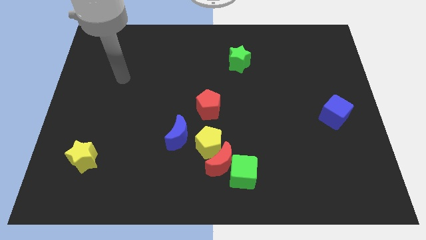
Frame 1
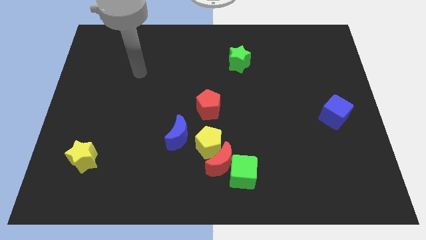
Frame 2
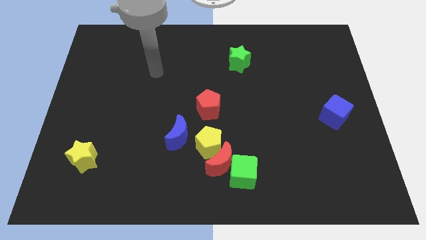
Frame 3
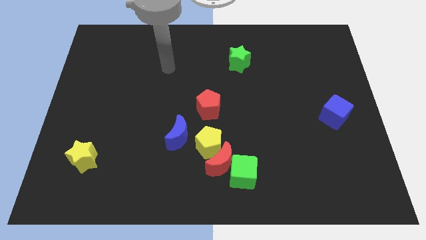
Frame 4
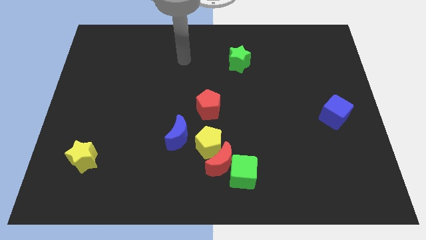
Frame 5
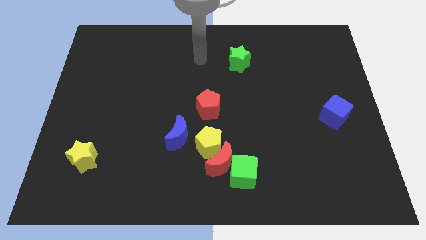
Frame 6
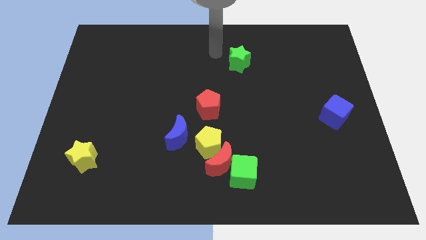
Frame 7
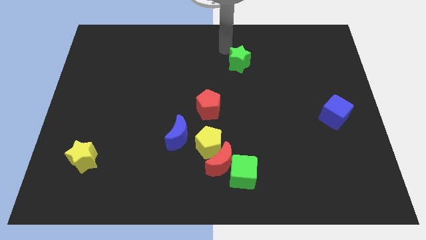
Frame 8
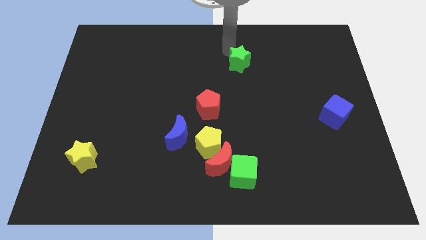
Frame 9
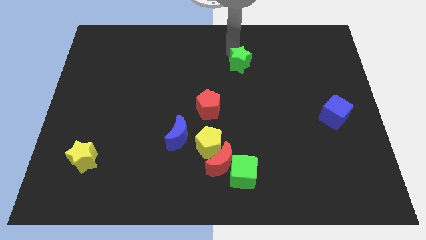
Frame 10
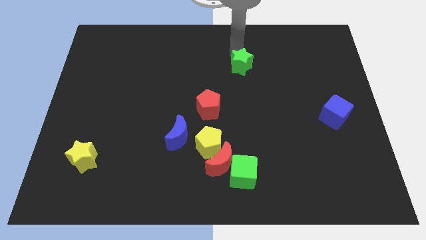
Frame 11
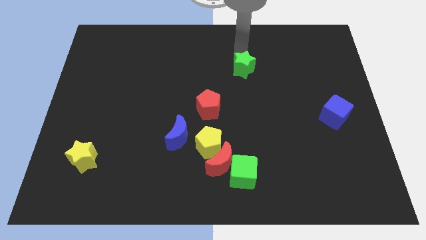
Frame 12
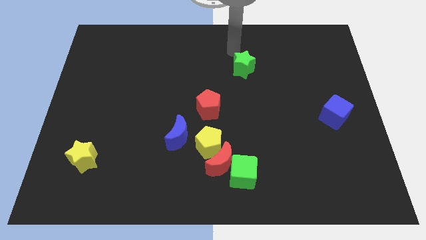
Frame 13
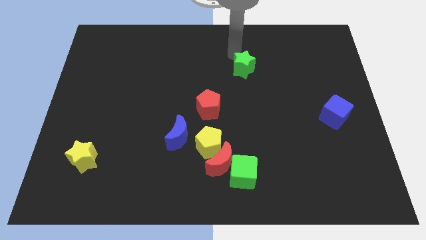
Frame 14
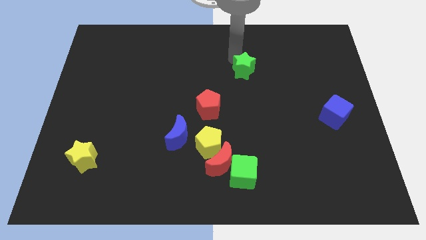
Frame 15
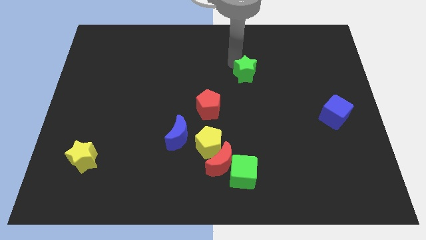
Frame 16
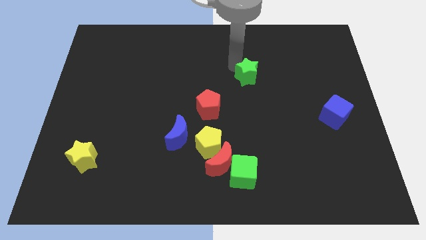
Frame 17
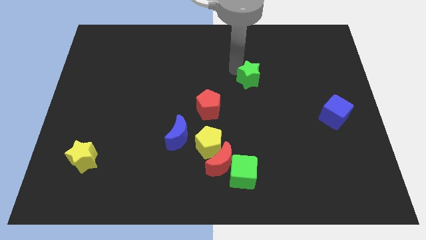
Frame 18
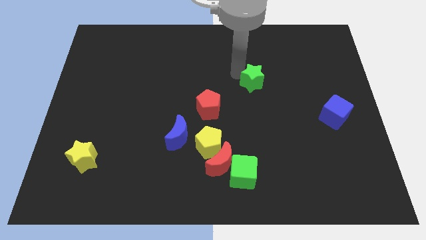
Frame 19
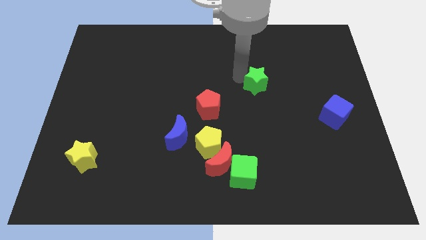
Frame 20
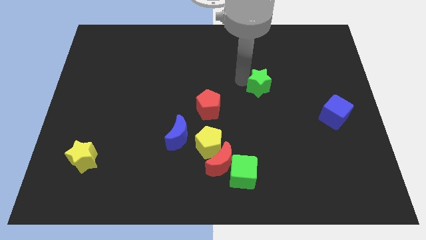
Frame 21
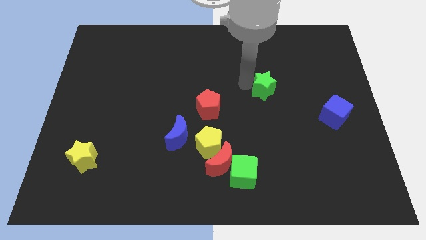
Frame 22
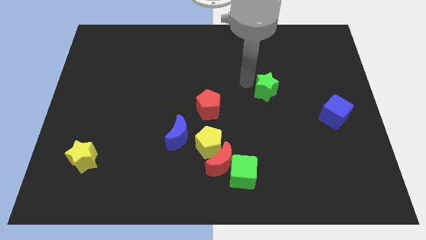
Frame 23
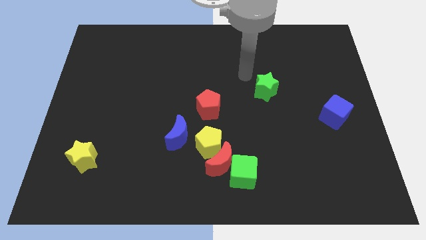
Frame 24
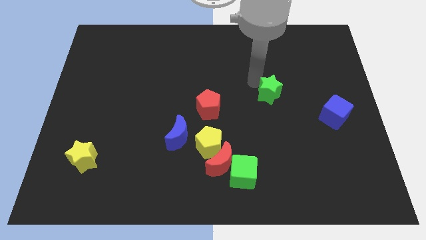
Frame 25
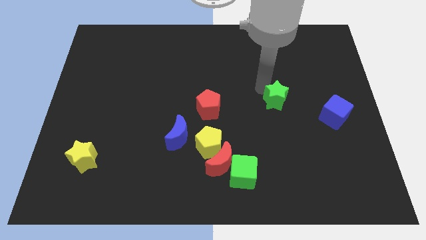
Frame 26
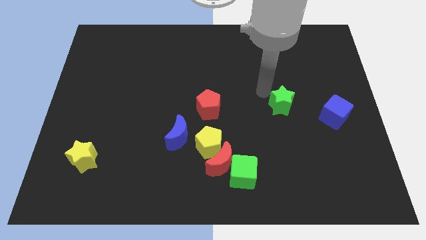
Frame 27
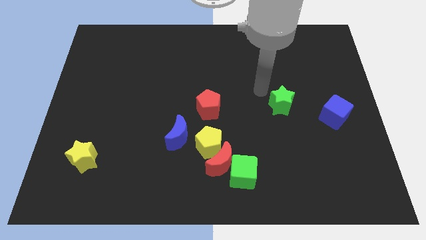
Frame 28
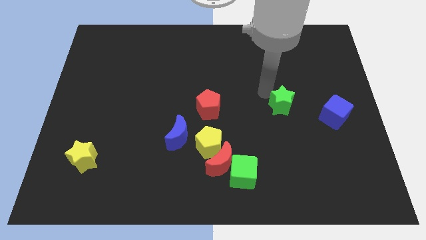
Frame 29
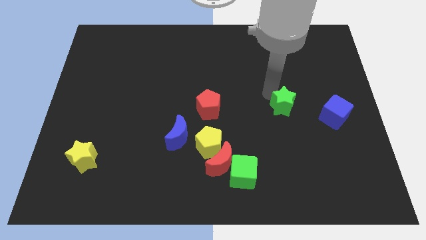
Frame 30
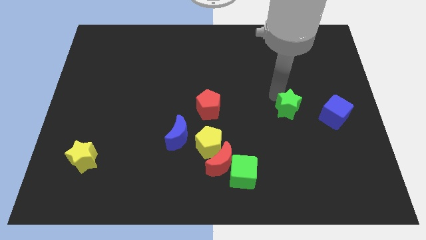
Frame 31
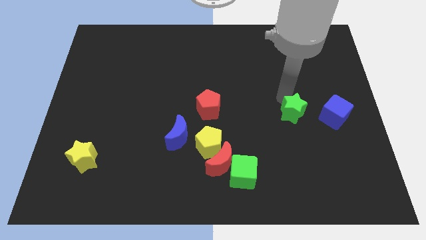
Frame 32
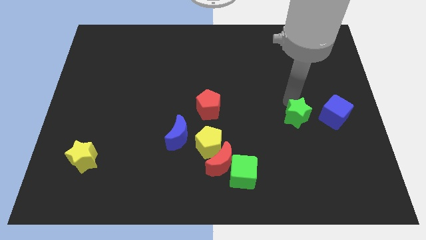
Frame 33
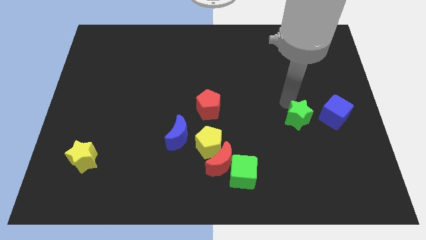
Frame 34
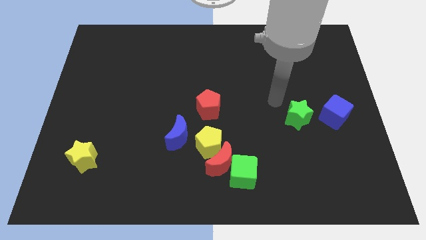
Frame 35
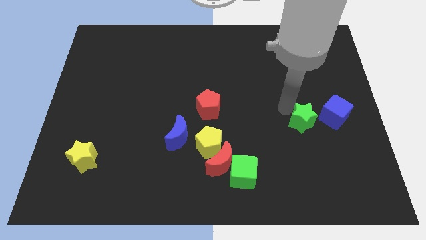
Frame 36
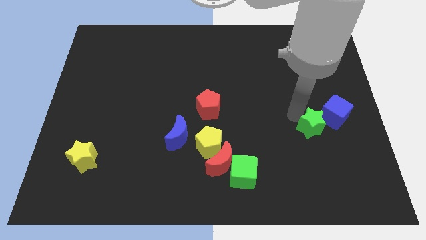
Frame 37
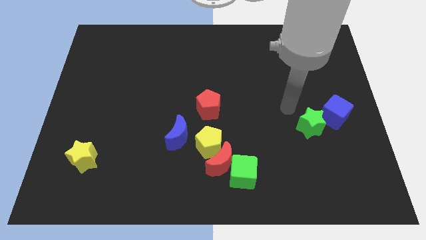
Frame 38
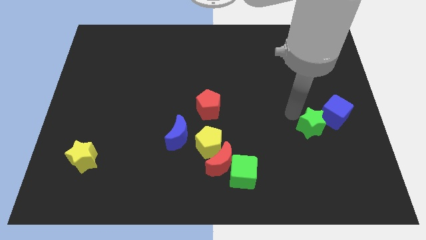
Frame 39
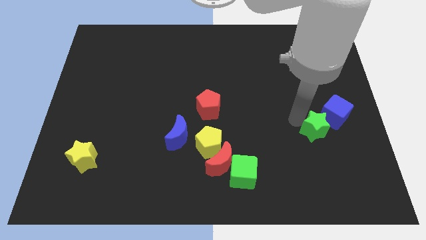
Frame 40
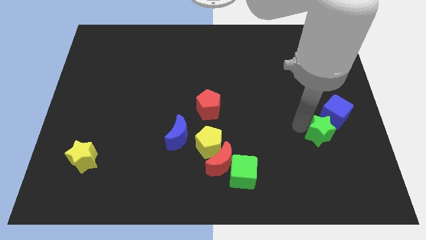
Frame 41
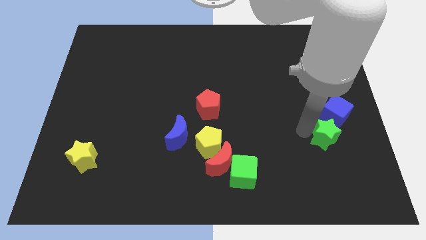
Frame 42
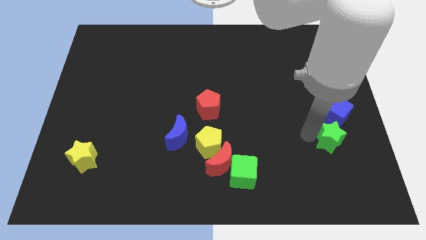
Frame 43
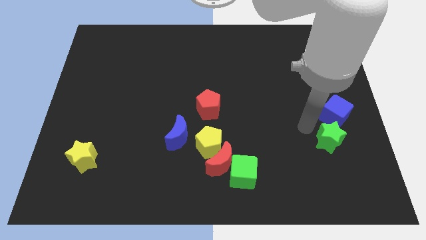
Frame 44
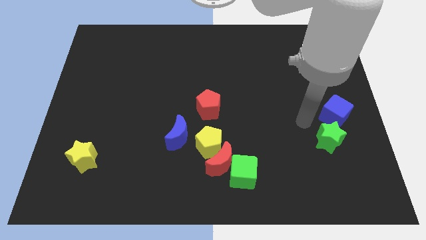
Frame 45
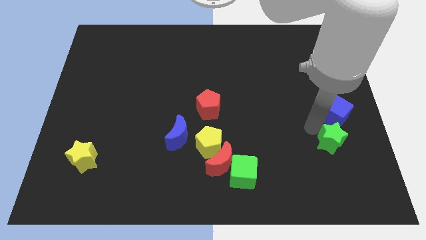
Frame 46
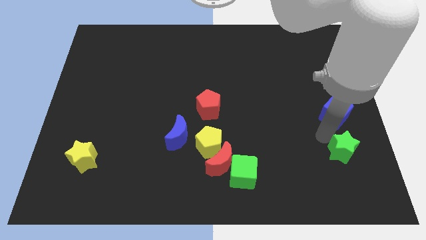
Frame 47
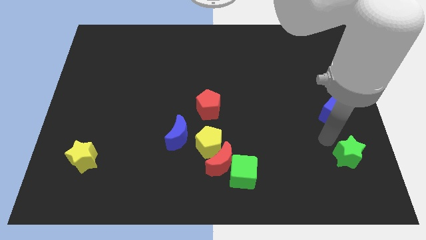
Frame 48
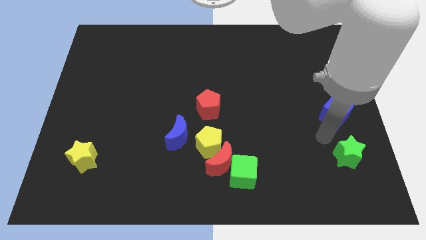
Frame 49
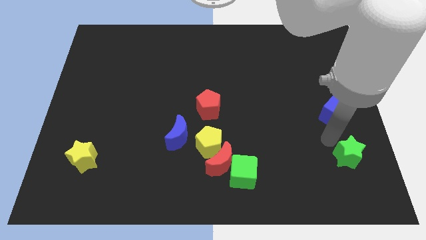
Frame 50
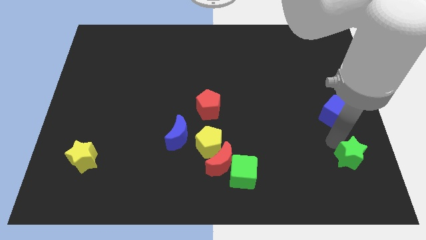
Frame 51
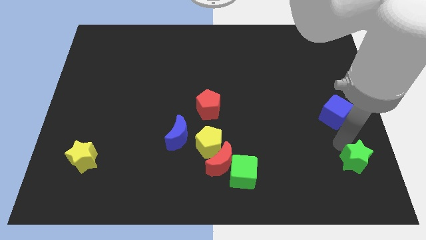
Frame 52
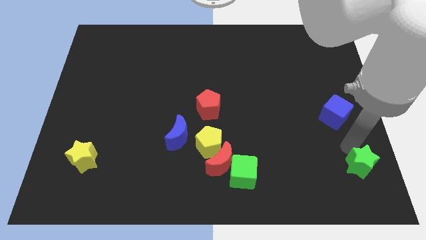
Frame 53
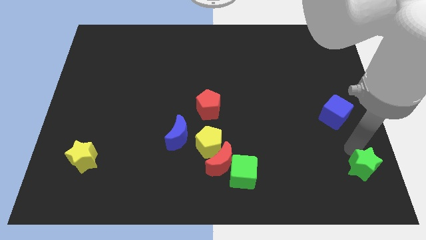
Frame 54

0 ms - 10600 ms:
push the green star to the bottom right of the board
